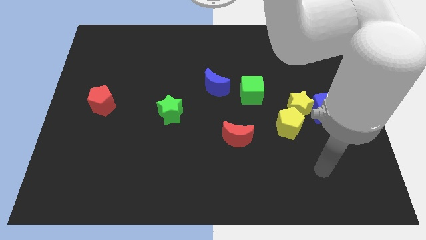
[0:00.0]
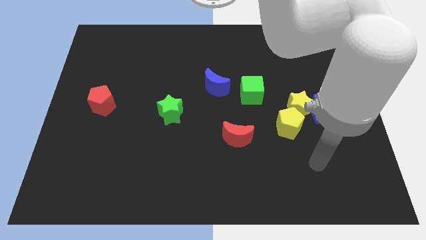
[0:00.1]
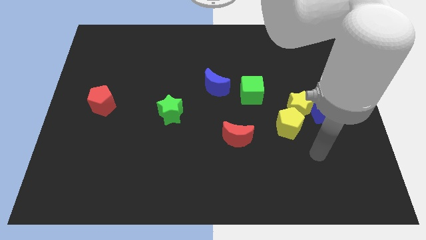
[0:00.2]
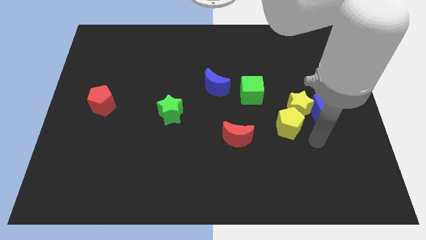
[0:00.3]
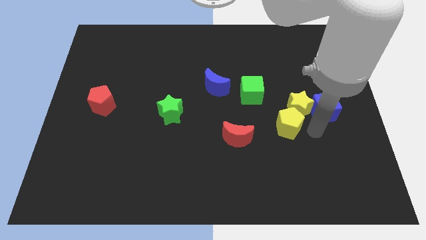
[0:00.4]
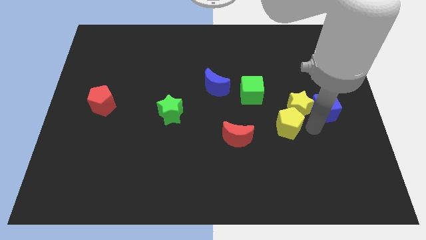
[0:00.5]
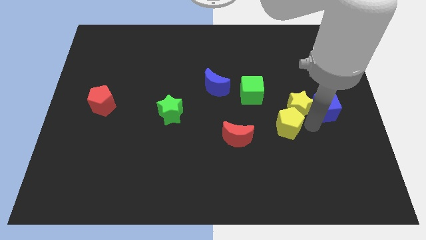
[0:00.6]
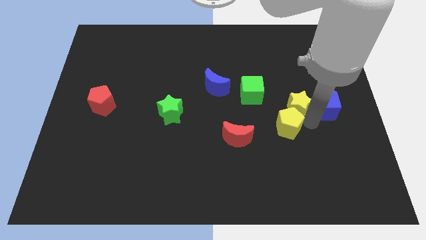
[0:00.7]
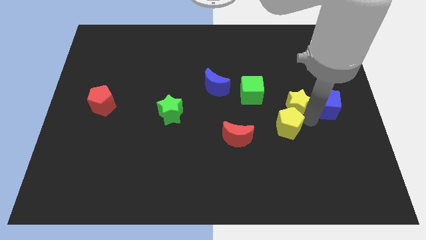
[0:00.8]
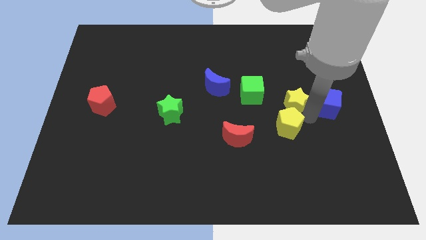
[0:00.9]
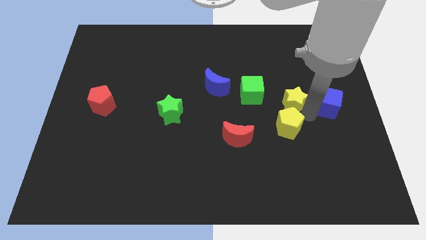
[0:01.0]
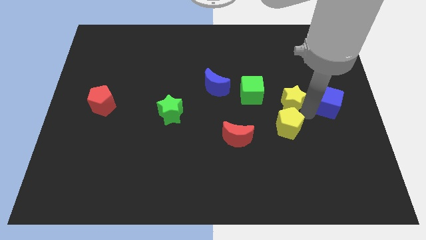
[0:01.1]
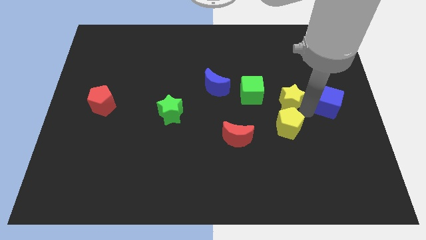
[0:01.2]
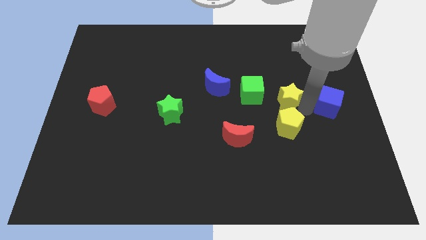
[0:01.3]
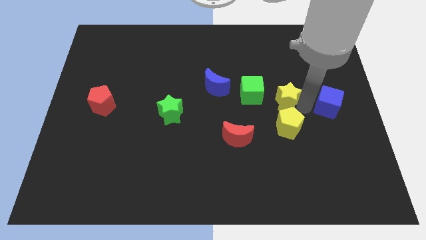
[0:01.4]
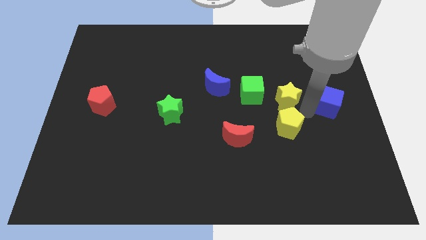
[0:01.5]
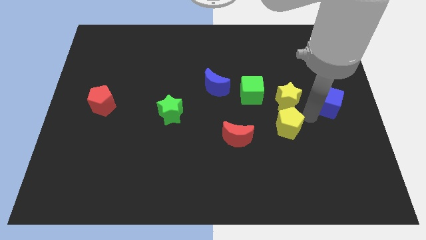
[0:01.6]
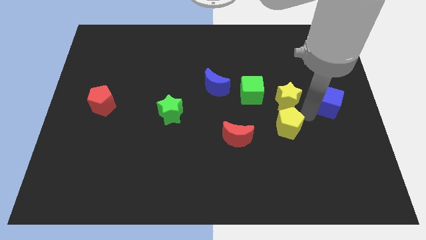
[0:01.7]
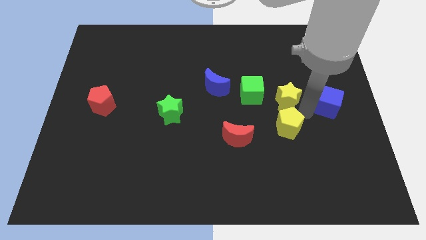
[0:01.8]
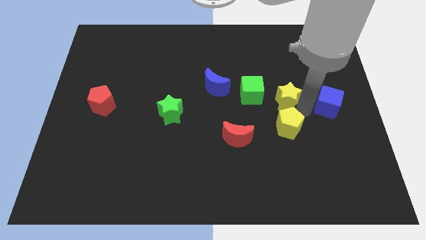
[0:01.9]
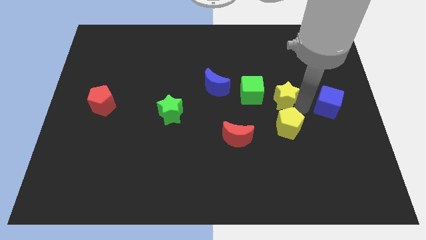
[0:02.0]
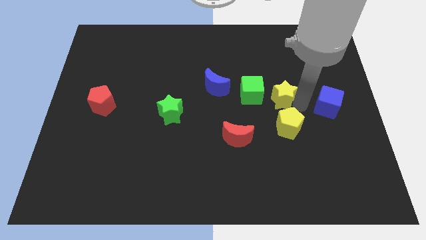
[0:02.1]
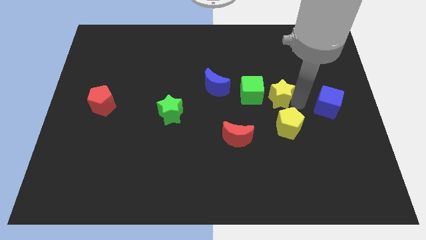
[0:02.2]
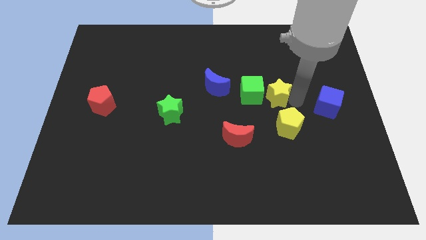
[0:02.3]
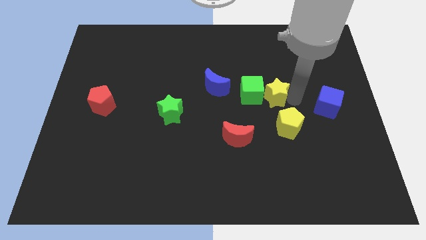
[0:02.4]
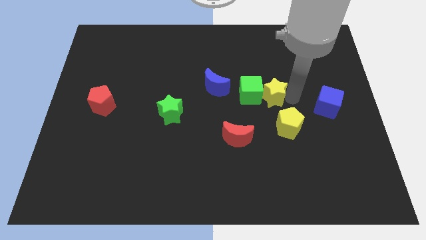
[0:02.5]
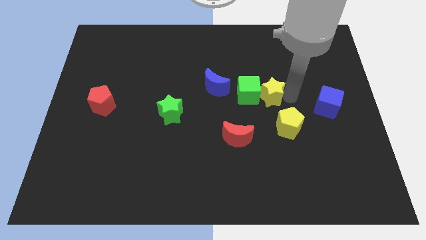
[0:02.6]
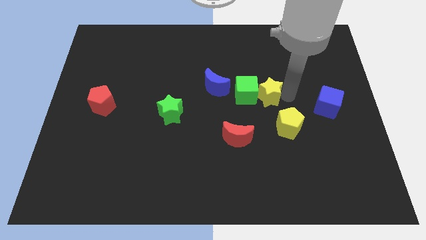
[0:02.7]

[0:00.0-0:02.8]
separate the yellow star from the yellow pentagon and blue cube

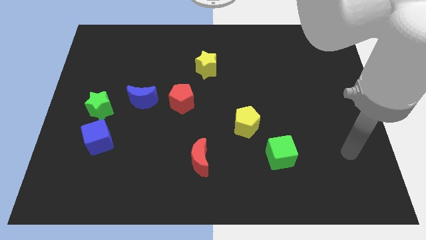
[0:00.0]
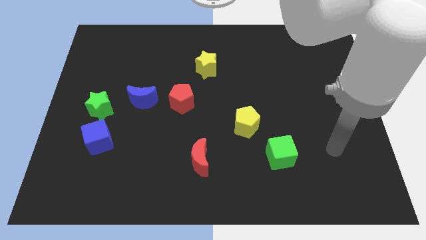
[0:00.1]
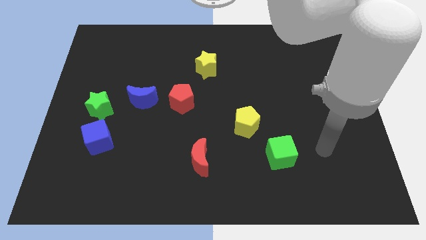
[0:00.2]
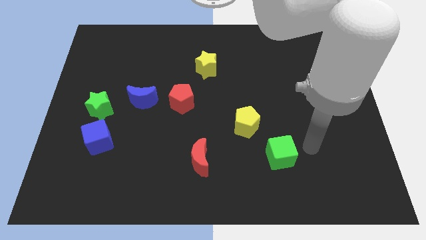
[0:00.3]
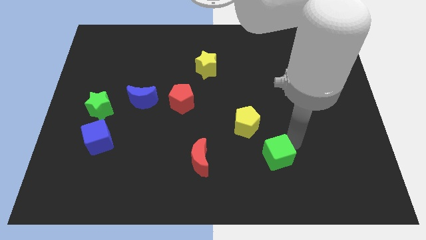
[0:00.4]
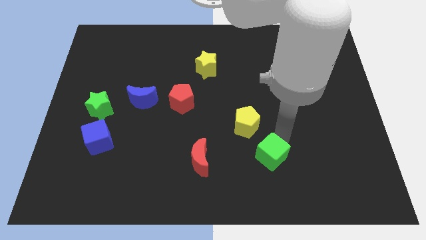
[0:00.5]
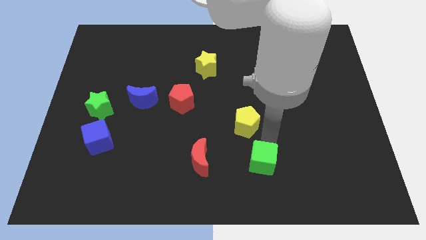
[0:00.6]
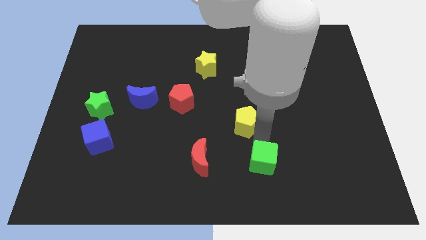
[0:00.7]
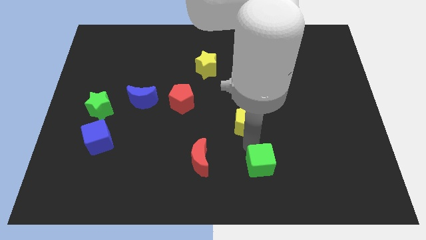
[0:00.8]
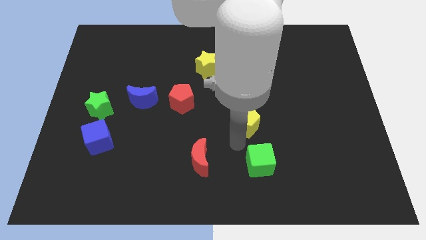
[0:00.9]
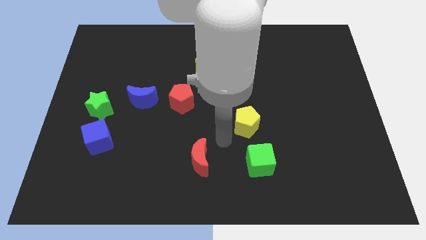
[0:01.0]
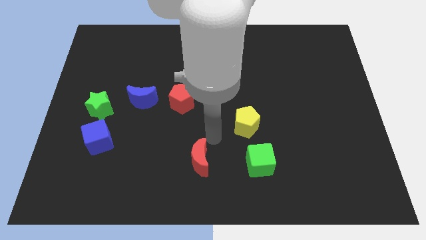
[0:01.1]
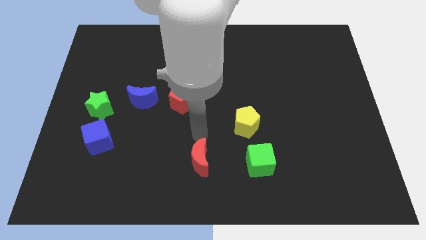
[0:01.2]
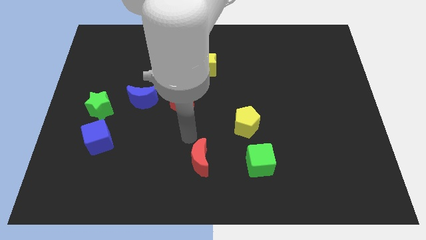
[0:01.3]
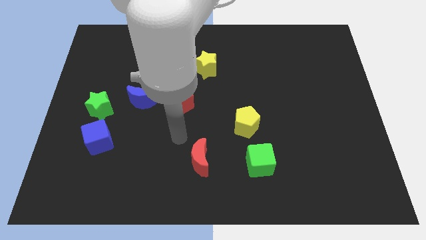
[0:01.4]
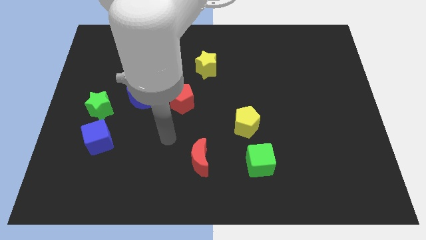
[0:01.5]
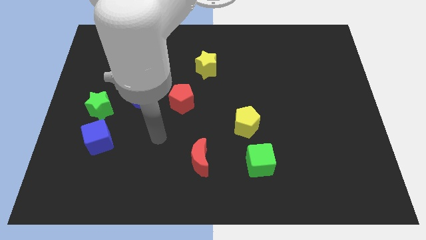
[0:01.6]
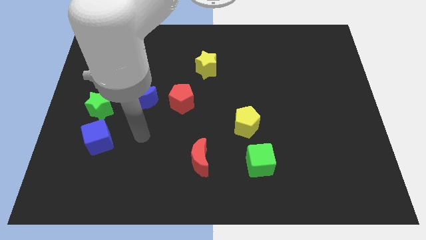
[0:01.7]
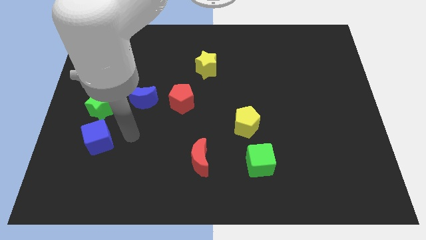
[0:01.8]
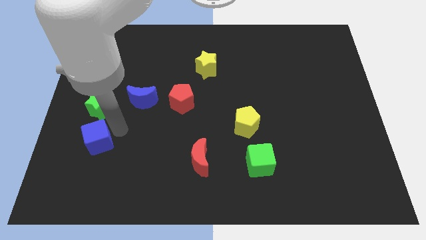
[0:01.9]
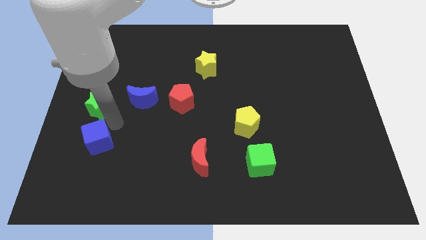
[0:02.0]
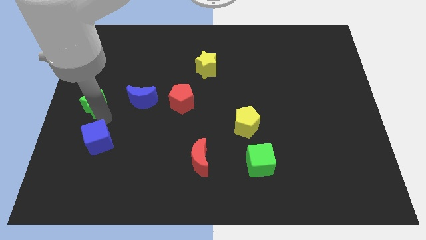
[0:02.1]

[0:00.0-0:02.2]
move the blue cube away from the green star

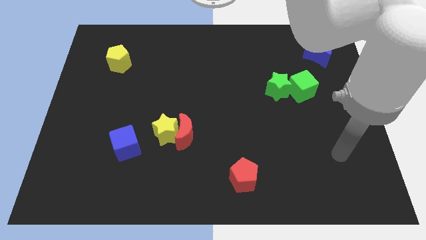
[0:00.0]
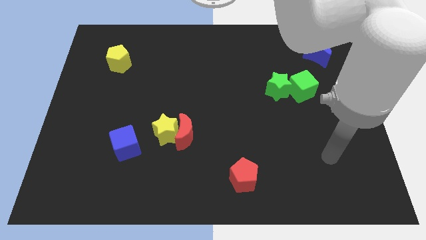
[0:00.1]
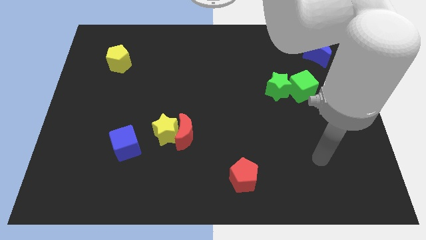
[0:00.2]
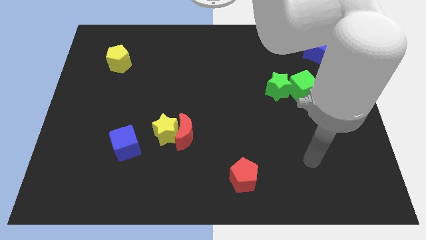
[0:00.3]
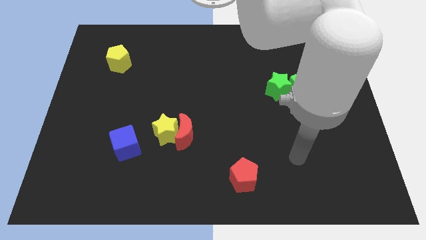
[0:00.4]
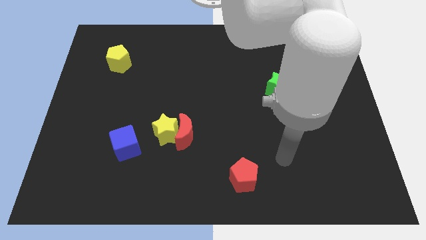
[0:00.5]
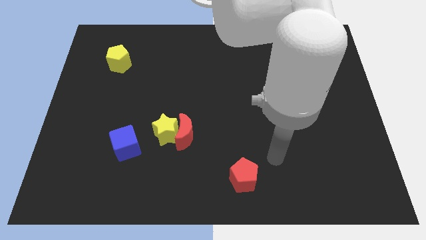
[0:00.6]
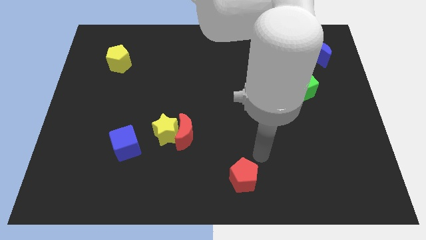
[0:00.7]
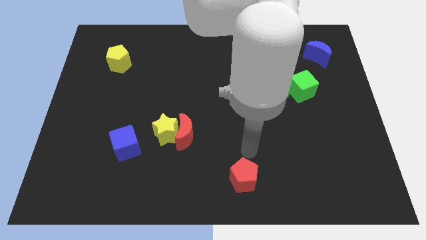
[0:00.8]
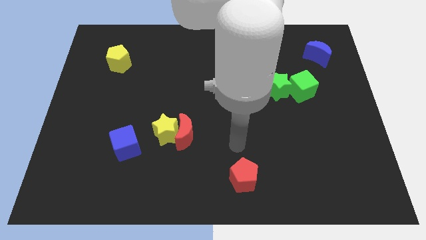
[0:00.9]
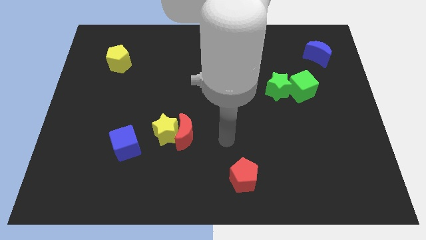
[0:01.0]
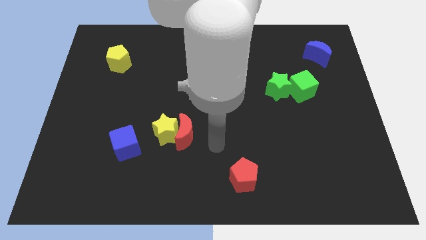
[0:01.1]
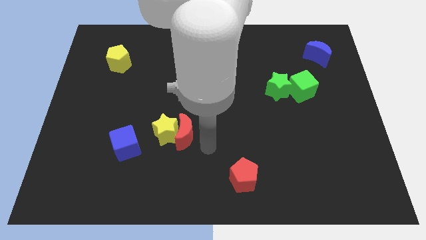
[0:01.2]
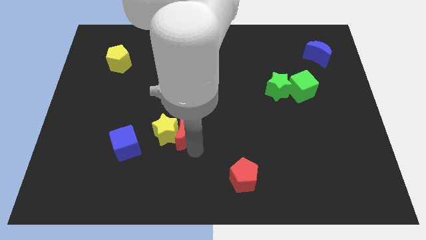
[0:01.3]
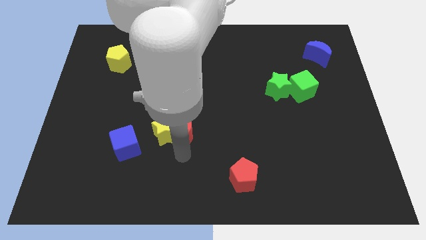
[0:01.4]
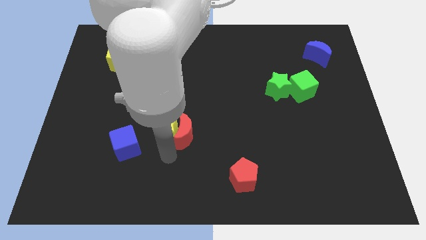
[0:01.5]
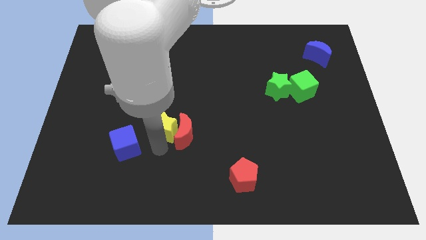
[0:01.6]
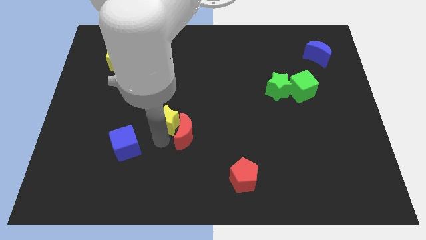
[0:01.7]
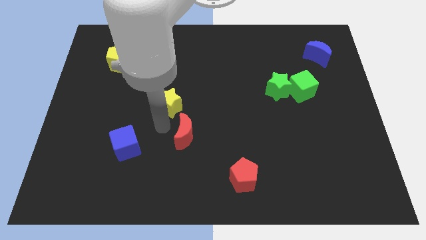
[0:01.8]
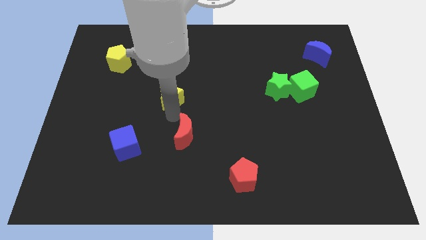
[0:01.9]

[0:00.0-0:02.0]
separate the red moon from the yellow star

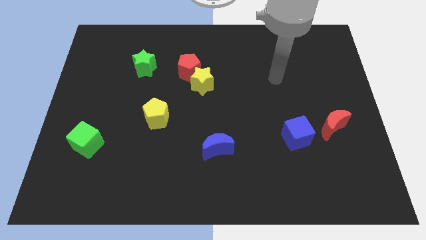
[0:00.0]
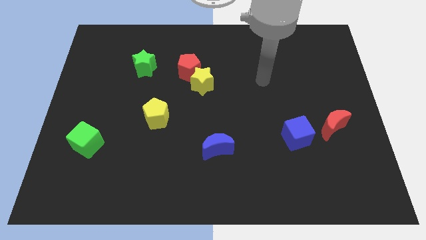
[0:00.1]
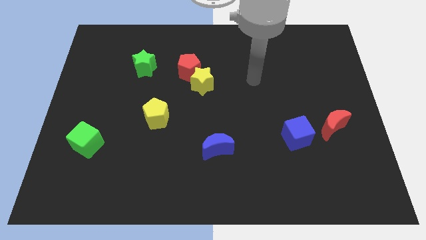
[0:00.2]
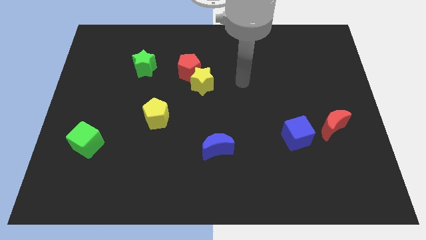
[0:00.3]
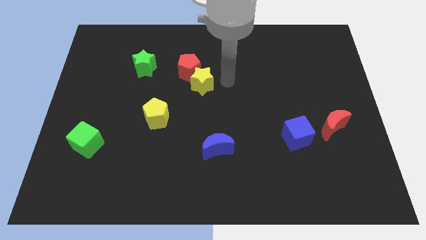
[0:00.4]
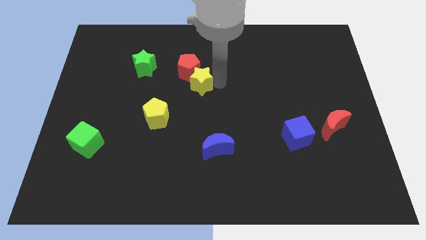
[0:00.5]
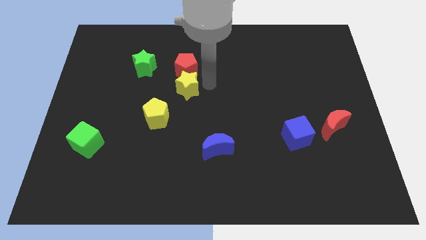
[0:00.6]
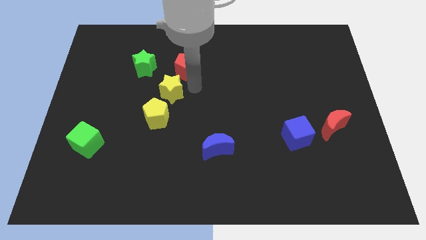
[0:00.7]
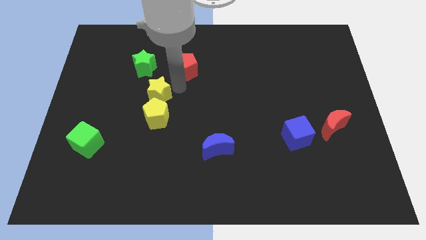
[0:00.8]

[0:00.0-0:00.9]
separate the red pentagon from the yellow star

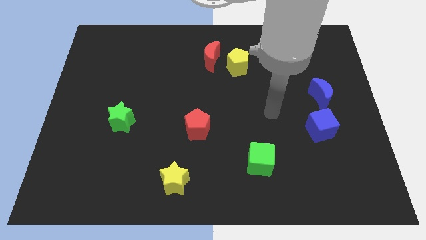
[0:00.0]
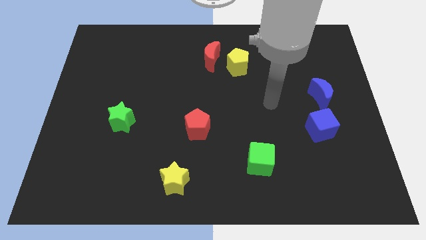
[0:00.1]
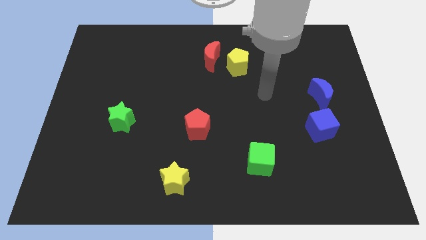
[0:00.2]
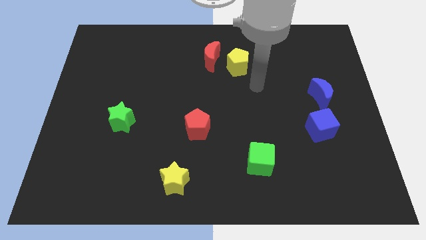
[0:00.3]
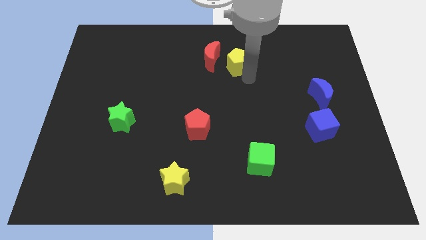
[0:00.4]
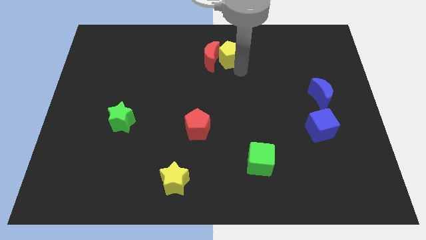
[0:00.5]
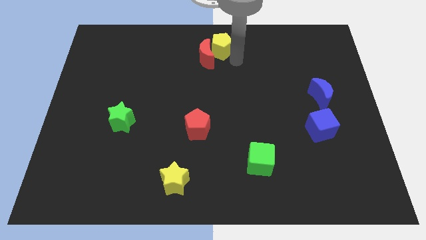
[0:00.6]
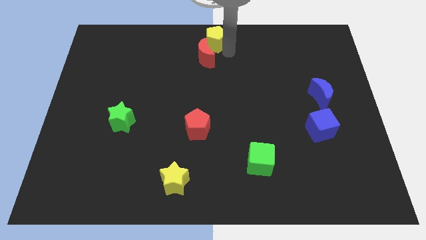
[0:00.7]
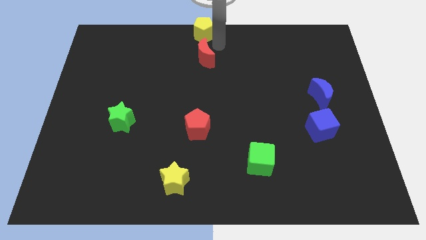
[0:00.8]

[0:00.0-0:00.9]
separate the red moon from the yellow pentagon

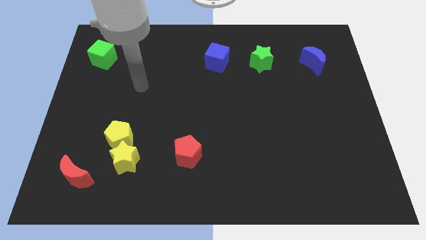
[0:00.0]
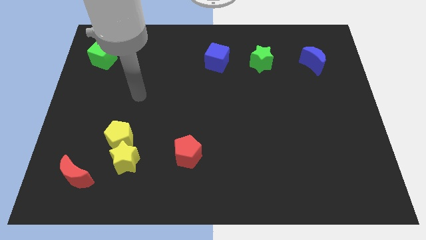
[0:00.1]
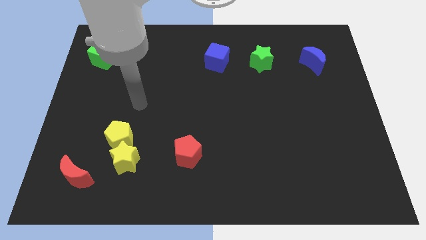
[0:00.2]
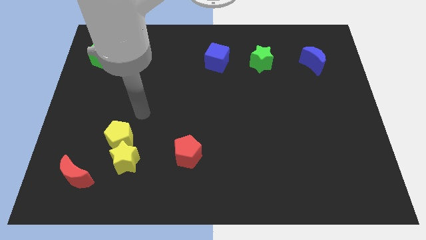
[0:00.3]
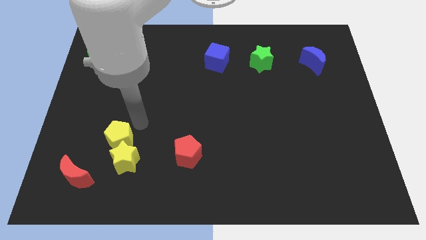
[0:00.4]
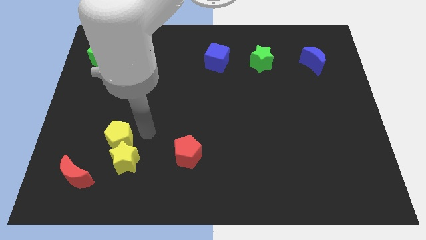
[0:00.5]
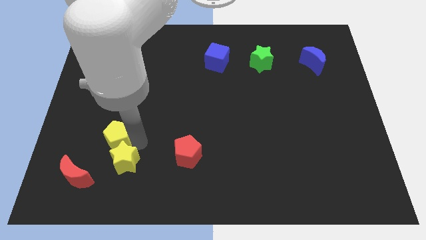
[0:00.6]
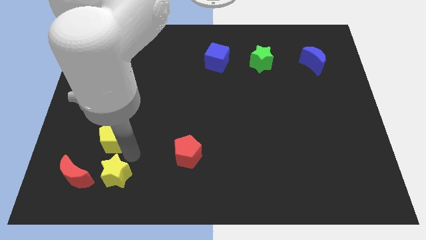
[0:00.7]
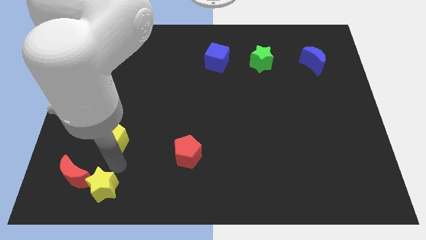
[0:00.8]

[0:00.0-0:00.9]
pull the yellow pentagon apart from the yellow star
